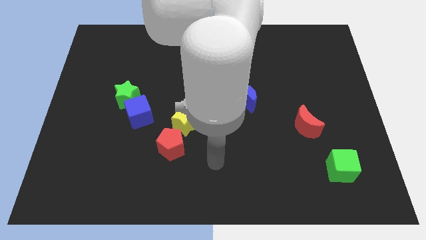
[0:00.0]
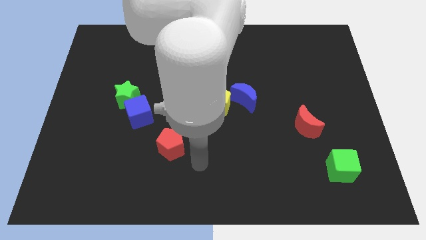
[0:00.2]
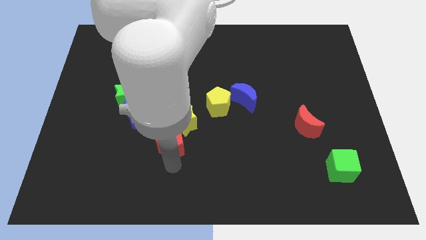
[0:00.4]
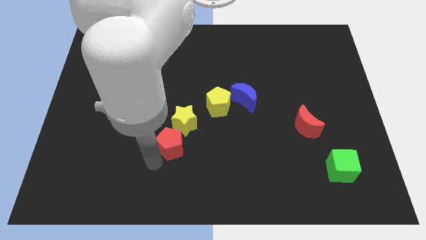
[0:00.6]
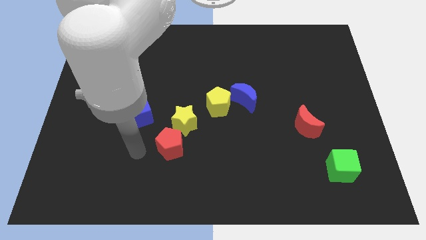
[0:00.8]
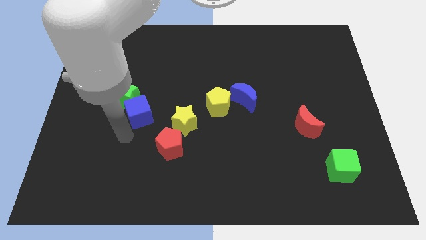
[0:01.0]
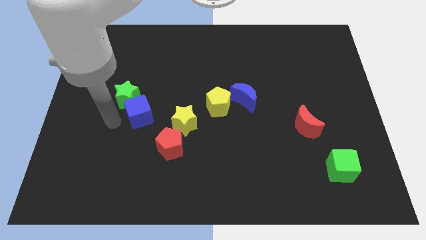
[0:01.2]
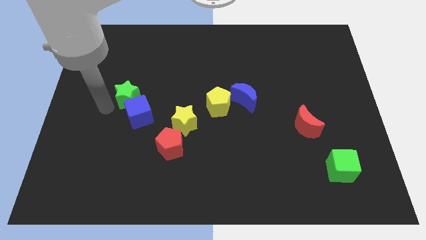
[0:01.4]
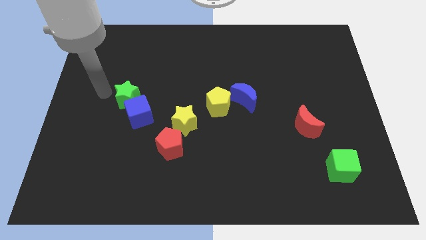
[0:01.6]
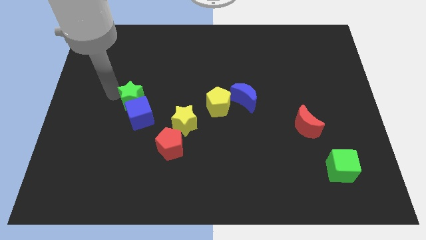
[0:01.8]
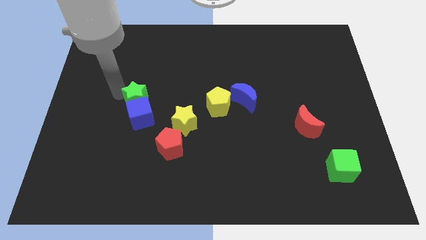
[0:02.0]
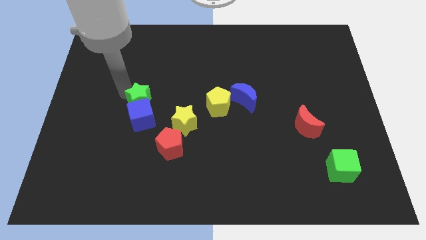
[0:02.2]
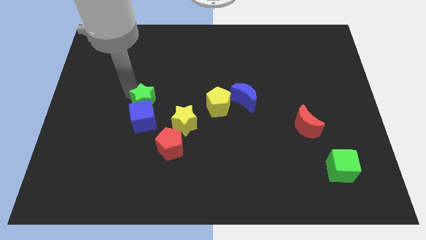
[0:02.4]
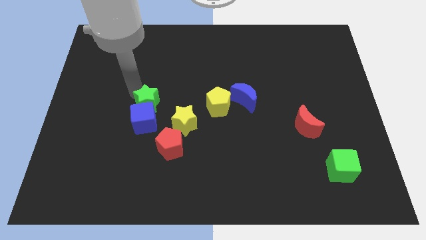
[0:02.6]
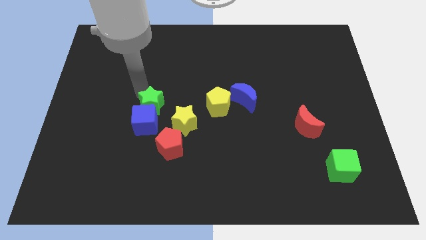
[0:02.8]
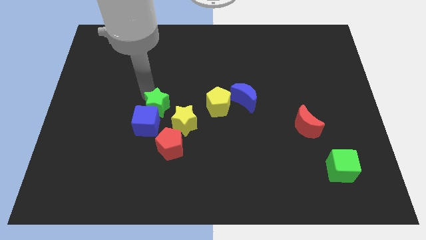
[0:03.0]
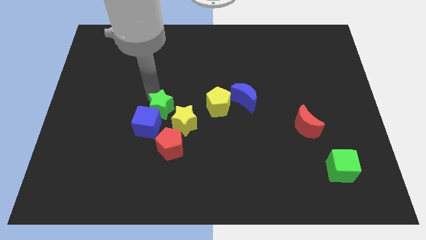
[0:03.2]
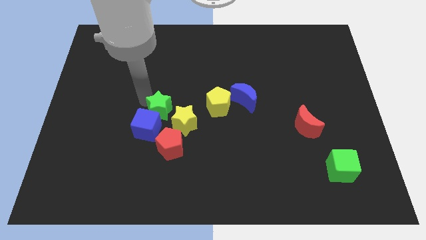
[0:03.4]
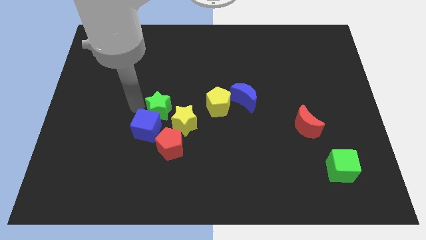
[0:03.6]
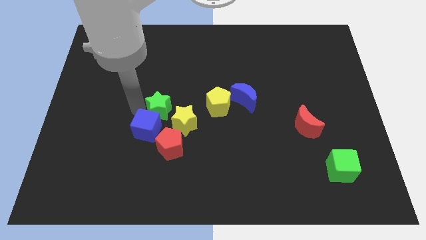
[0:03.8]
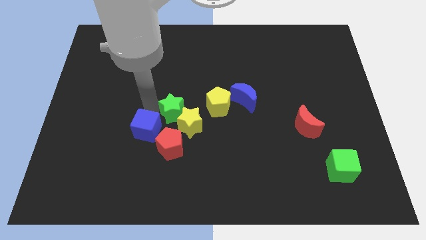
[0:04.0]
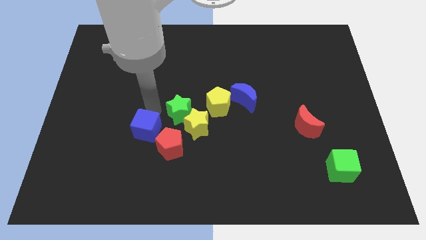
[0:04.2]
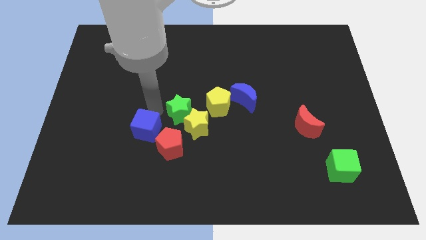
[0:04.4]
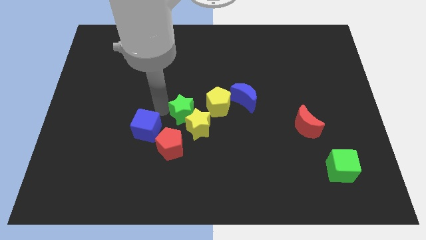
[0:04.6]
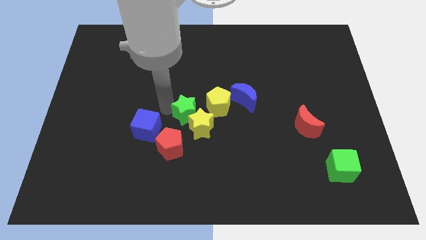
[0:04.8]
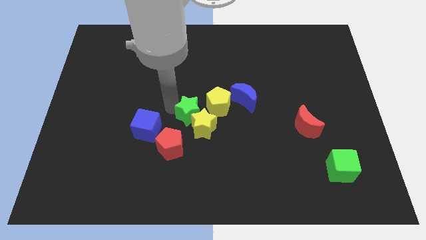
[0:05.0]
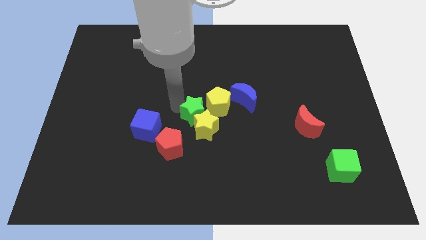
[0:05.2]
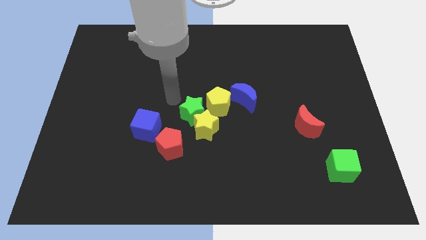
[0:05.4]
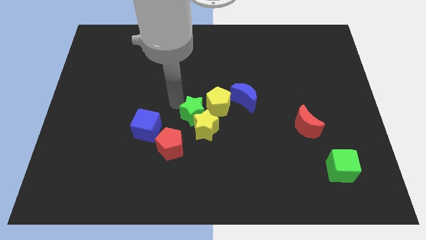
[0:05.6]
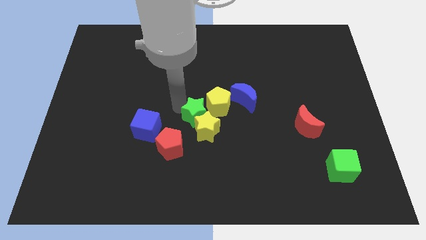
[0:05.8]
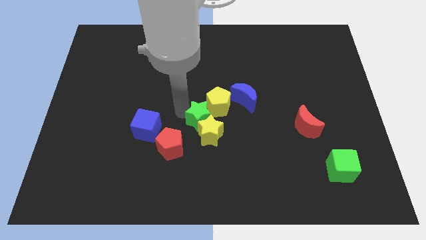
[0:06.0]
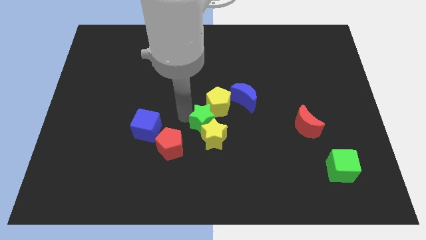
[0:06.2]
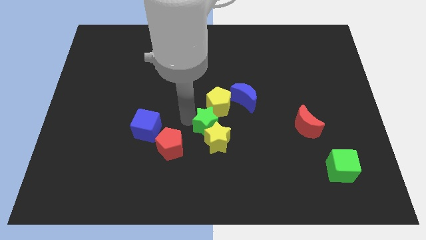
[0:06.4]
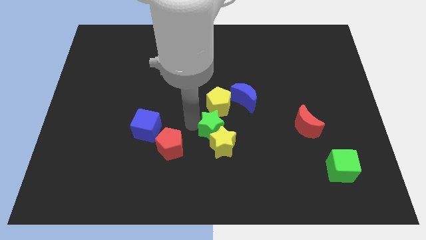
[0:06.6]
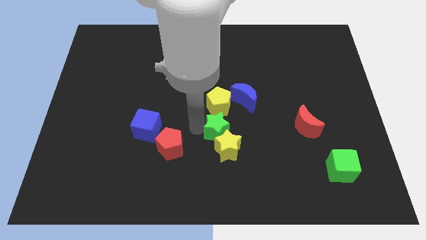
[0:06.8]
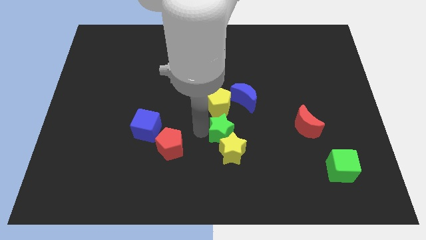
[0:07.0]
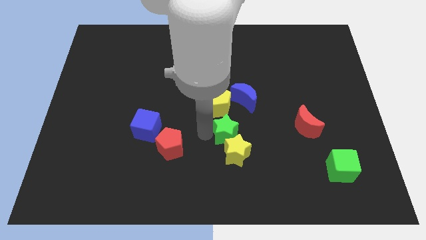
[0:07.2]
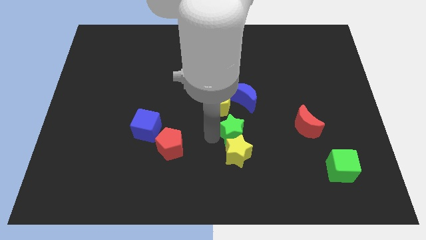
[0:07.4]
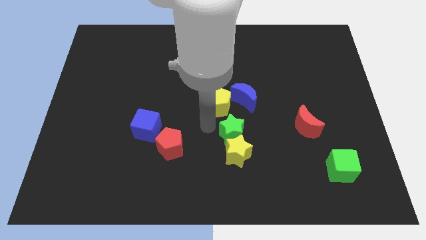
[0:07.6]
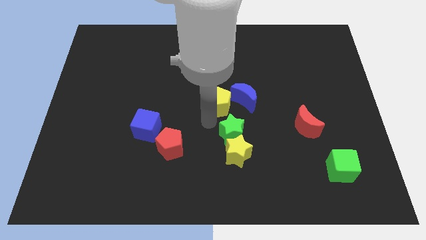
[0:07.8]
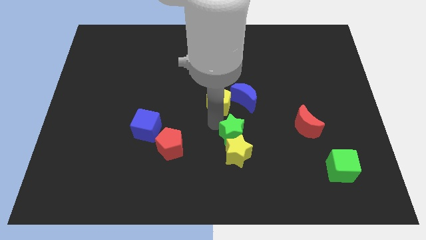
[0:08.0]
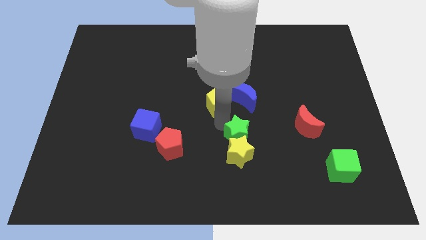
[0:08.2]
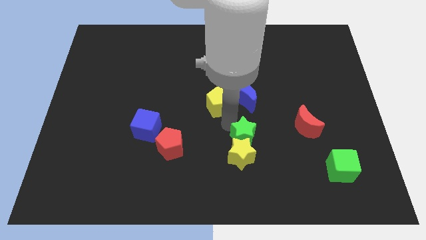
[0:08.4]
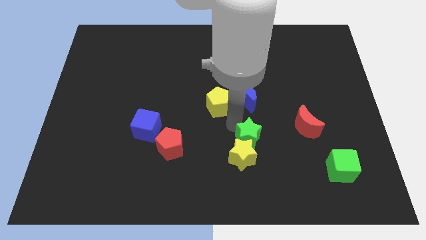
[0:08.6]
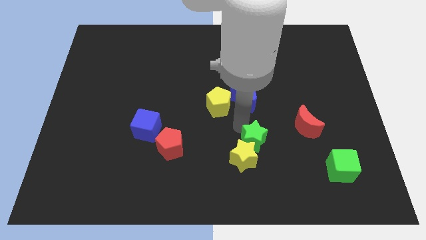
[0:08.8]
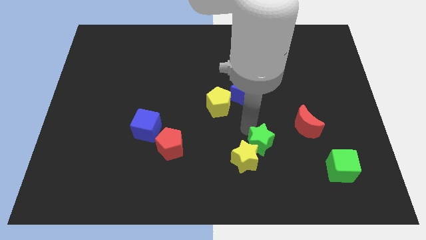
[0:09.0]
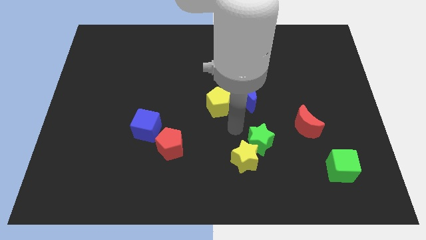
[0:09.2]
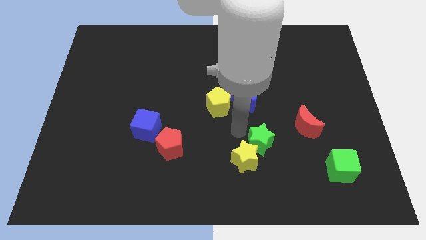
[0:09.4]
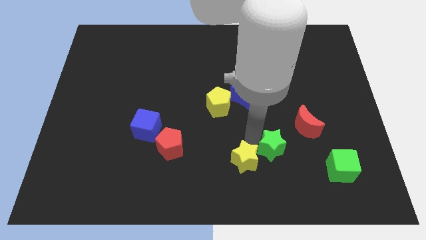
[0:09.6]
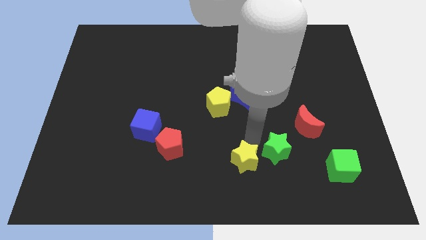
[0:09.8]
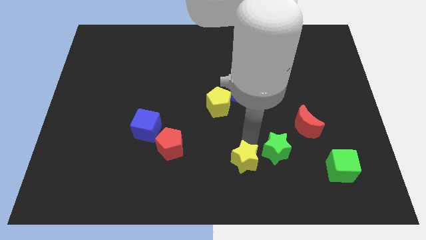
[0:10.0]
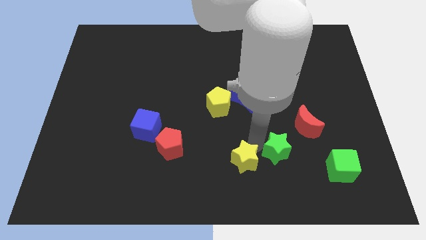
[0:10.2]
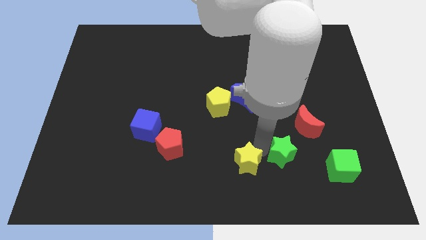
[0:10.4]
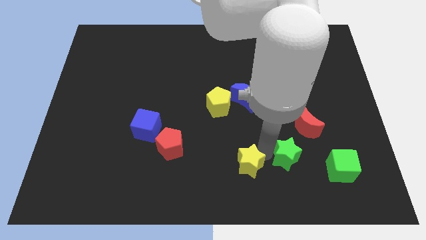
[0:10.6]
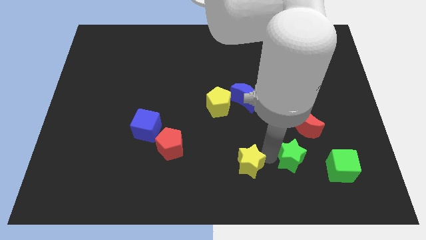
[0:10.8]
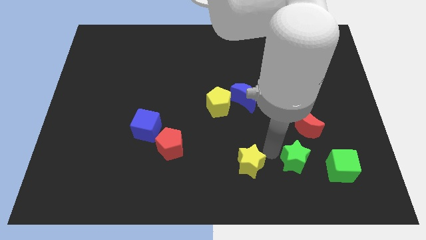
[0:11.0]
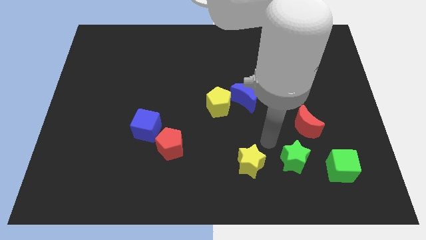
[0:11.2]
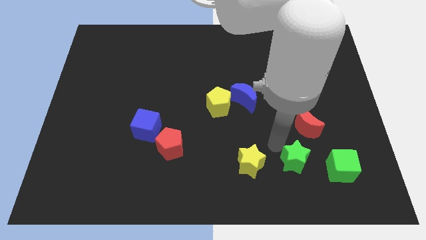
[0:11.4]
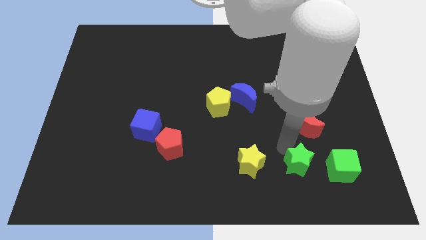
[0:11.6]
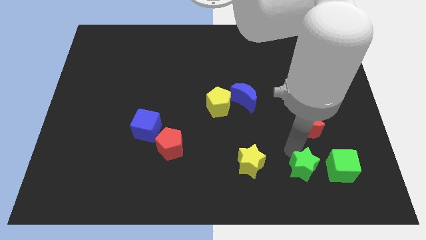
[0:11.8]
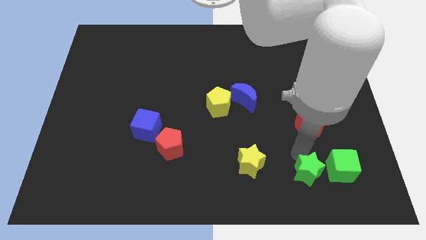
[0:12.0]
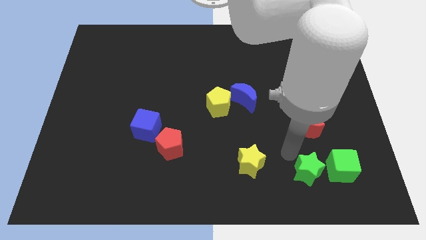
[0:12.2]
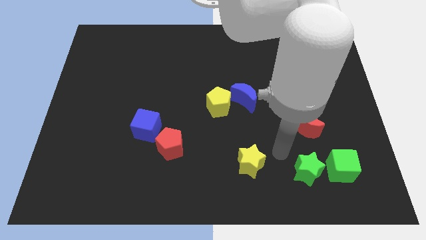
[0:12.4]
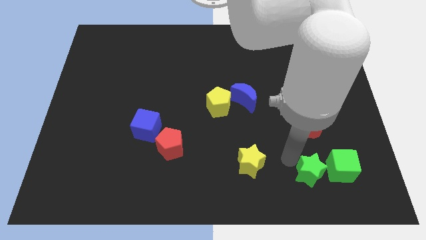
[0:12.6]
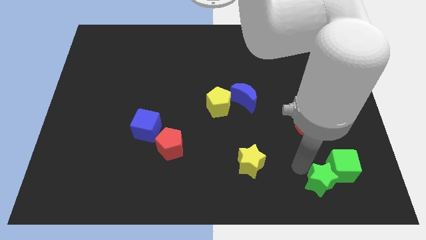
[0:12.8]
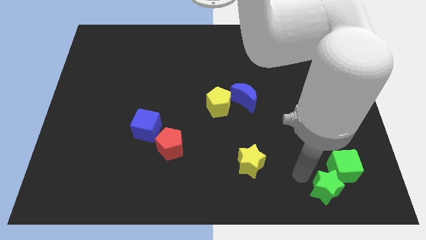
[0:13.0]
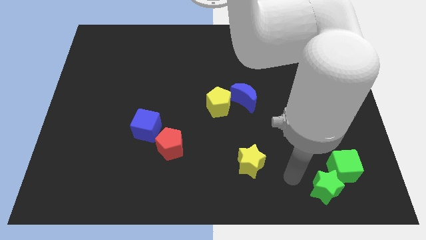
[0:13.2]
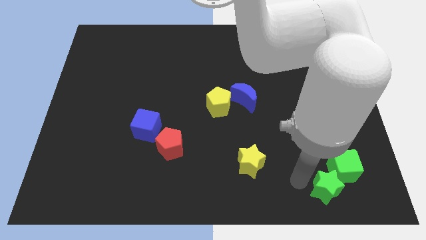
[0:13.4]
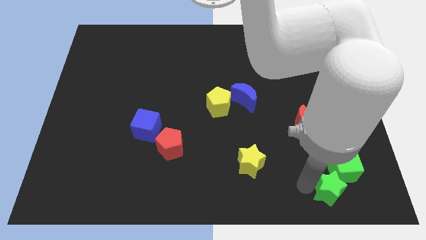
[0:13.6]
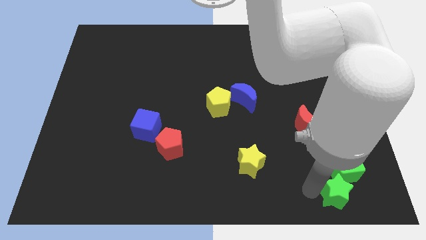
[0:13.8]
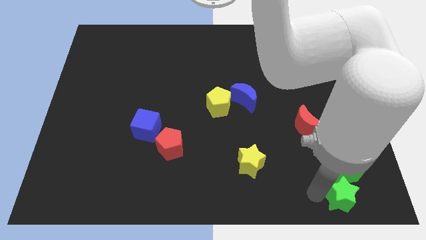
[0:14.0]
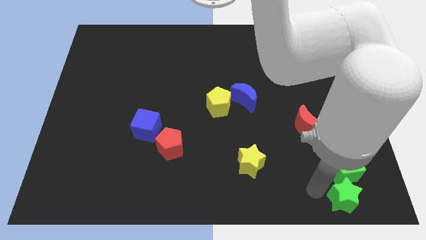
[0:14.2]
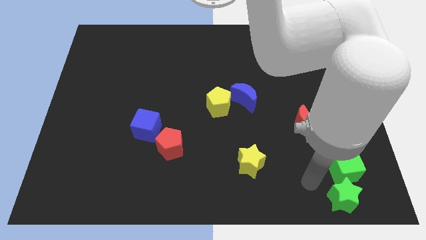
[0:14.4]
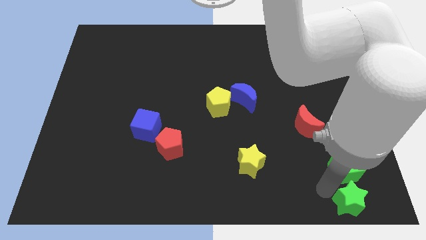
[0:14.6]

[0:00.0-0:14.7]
push the green star to the bottom right of the board
